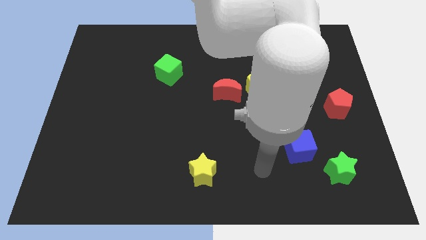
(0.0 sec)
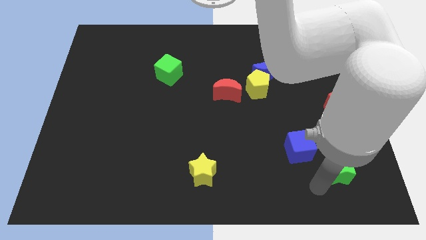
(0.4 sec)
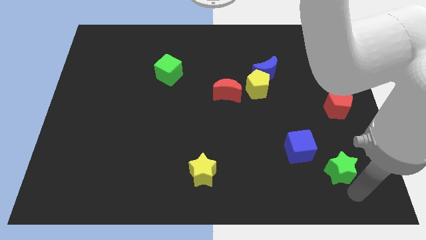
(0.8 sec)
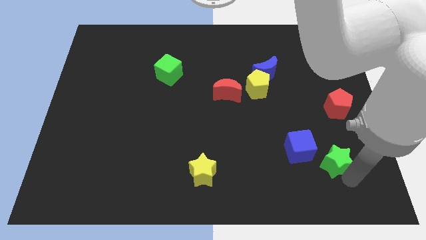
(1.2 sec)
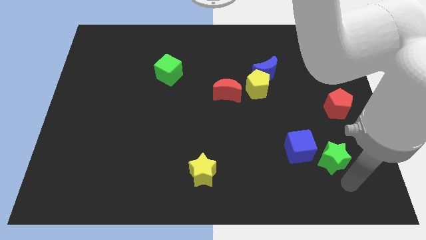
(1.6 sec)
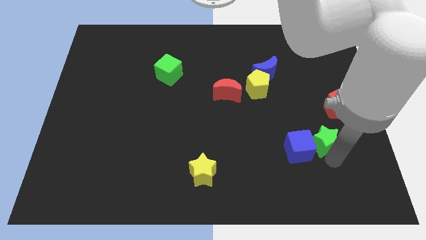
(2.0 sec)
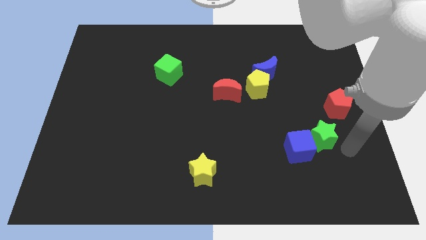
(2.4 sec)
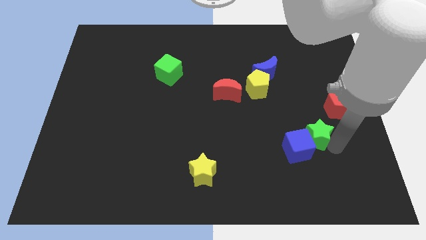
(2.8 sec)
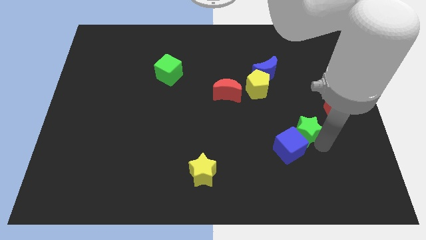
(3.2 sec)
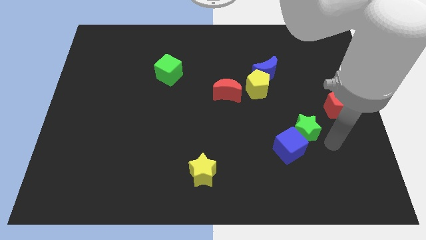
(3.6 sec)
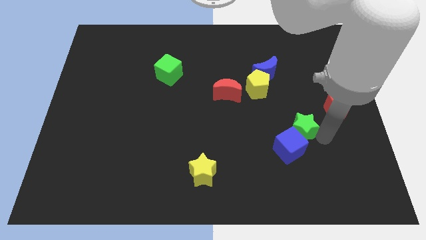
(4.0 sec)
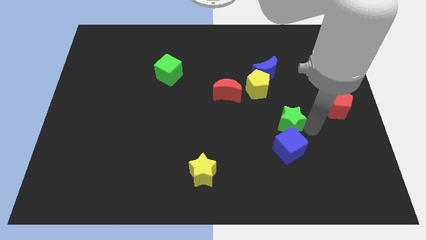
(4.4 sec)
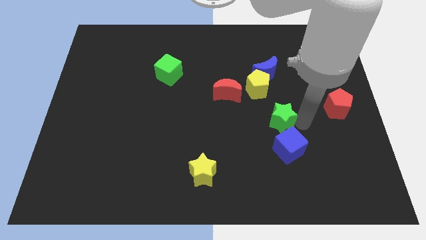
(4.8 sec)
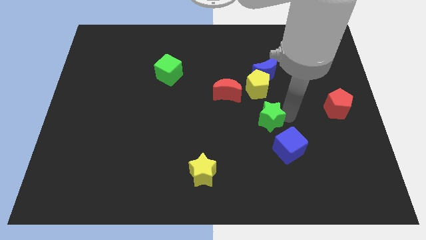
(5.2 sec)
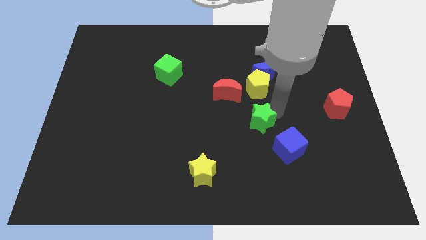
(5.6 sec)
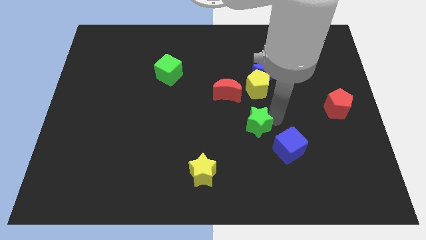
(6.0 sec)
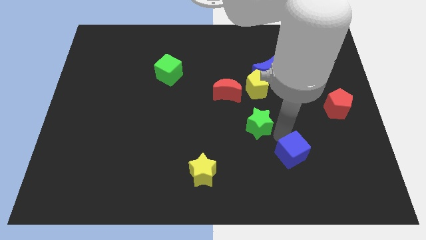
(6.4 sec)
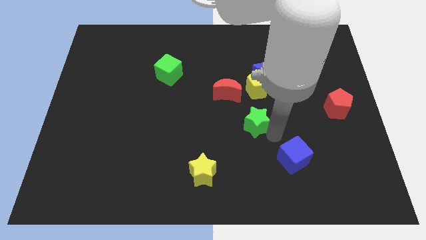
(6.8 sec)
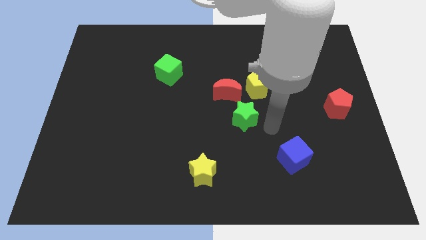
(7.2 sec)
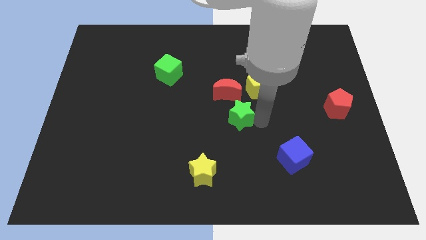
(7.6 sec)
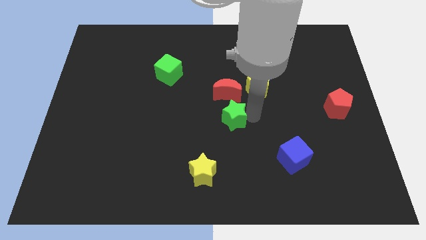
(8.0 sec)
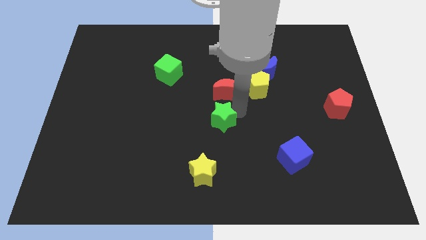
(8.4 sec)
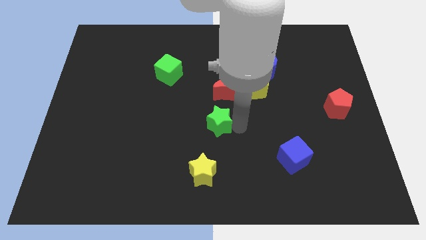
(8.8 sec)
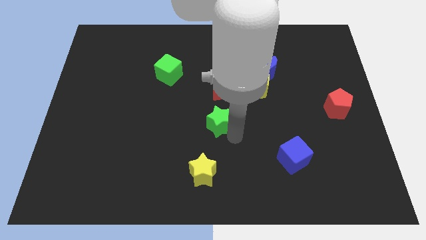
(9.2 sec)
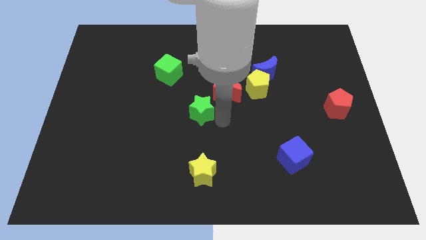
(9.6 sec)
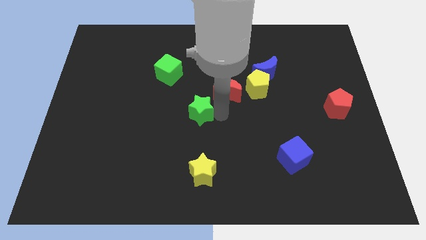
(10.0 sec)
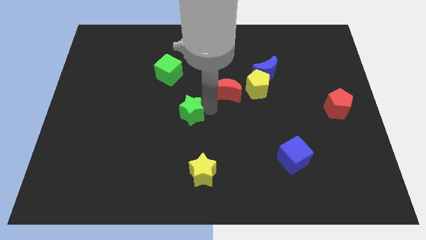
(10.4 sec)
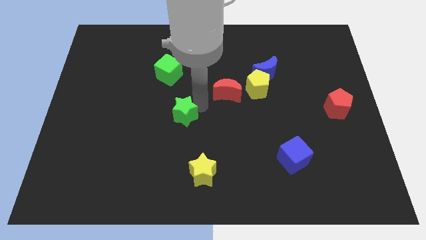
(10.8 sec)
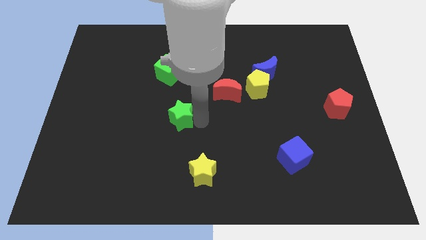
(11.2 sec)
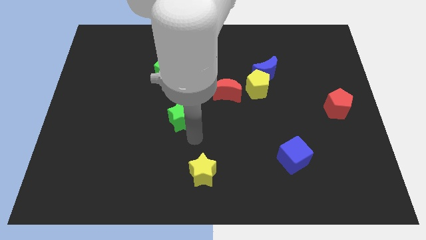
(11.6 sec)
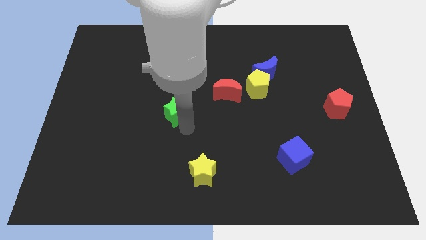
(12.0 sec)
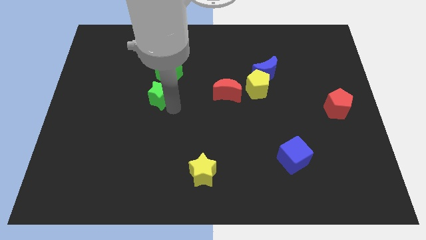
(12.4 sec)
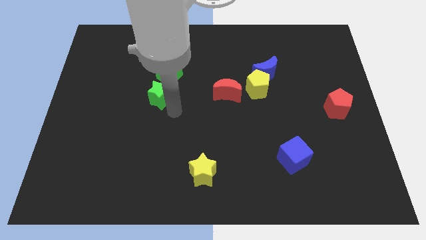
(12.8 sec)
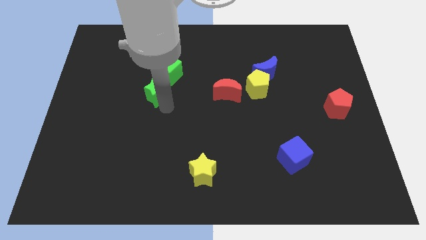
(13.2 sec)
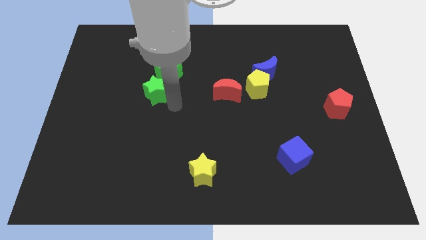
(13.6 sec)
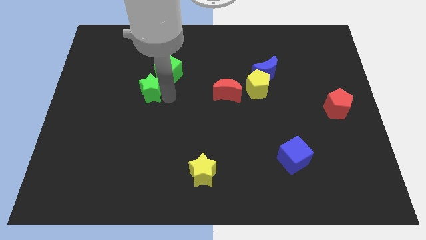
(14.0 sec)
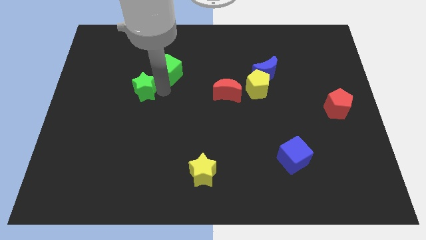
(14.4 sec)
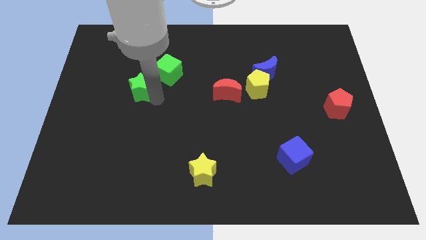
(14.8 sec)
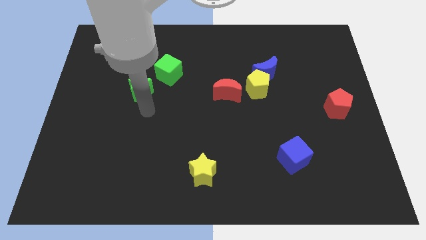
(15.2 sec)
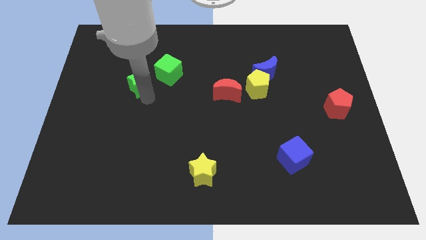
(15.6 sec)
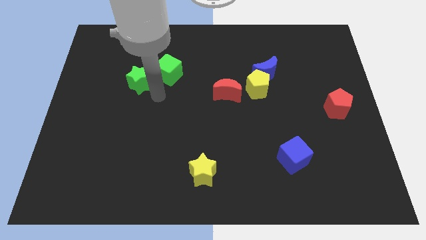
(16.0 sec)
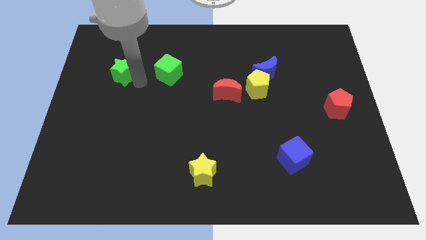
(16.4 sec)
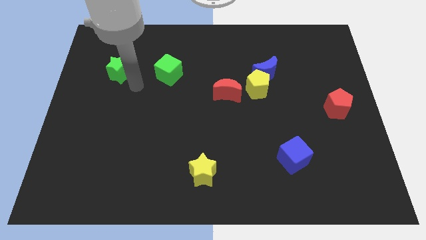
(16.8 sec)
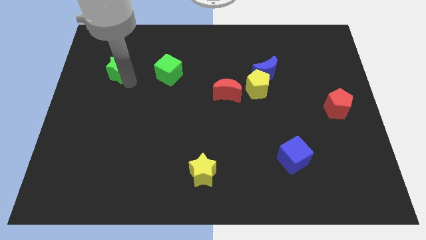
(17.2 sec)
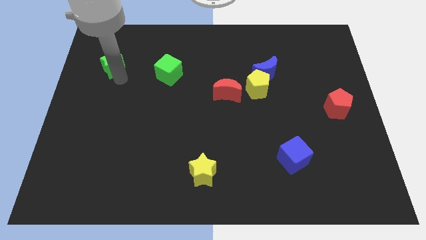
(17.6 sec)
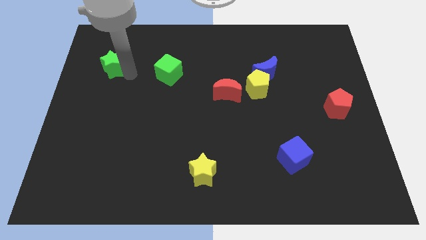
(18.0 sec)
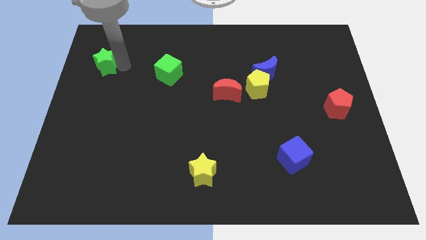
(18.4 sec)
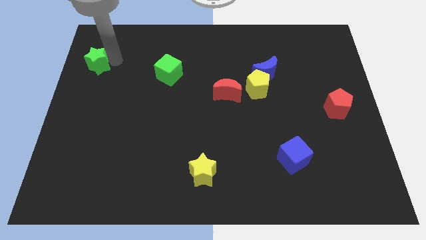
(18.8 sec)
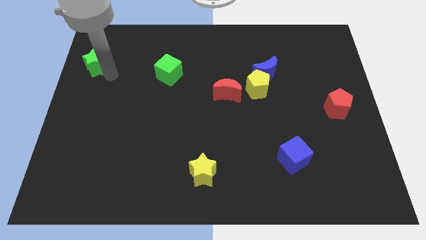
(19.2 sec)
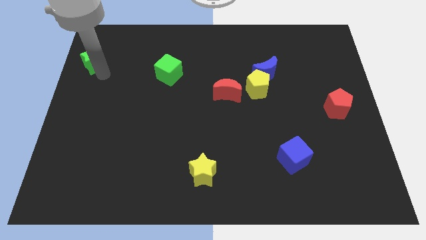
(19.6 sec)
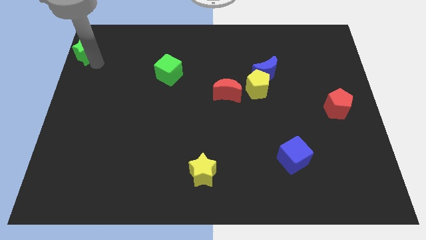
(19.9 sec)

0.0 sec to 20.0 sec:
slide the green star to the top left corner

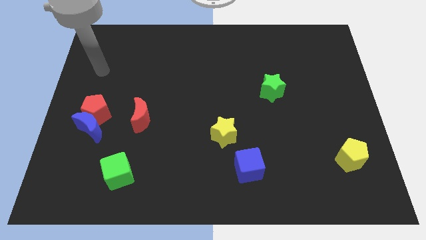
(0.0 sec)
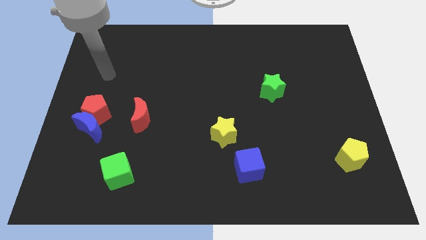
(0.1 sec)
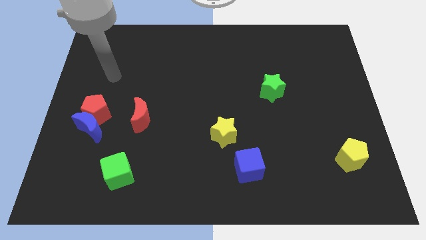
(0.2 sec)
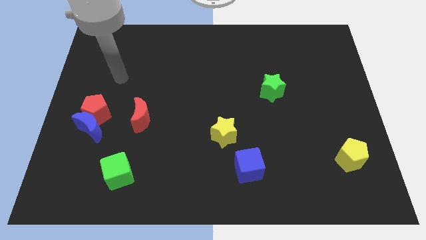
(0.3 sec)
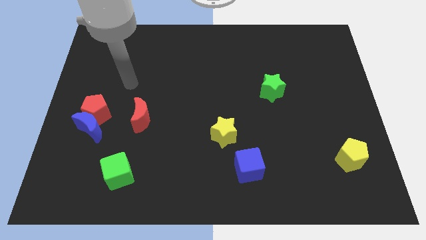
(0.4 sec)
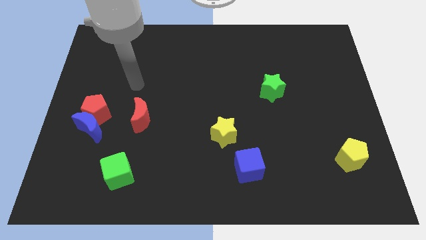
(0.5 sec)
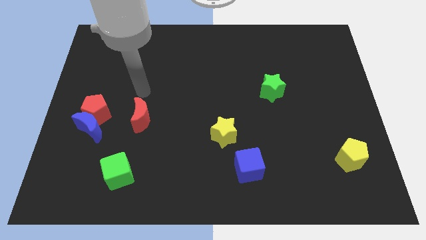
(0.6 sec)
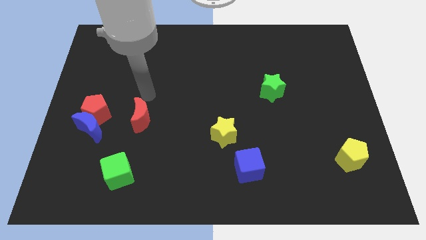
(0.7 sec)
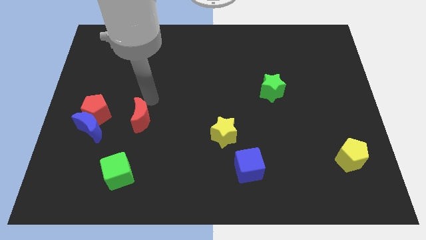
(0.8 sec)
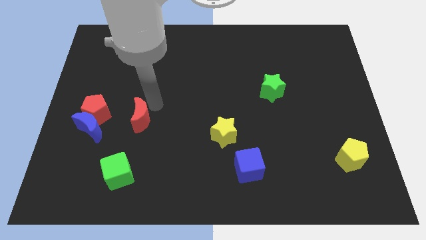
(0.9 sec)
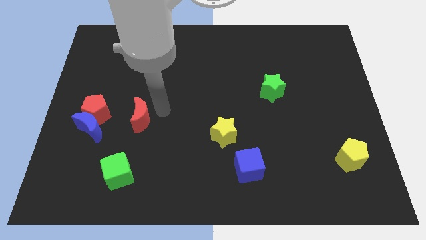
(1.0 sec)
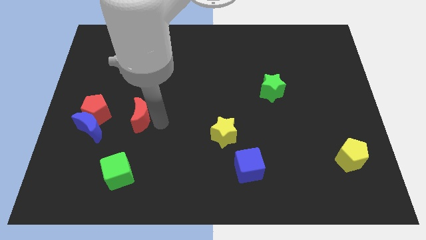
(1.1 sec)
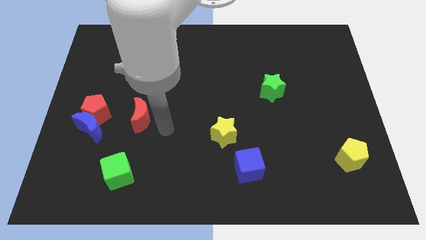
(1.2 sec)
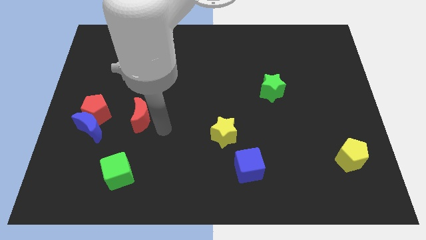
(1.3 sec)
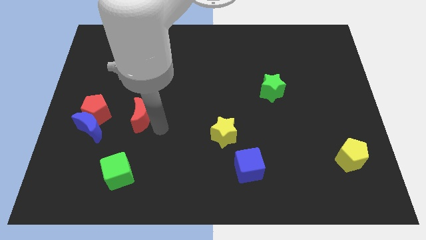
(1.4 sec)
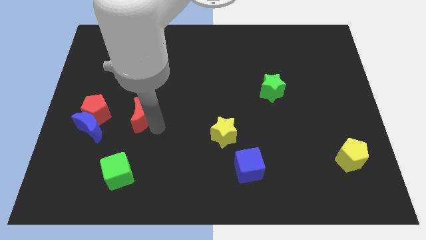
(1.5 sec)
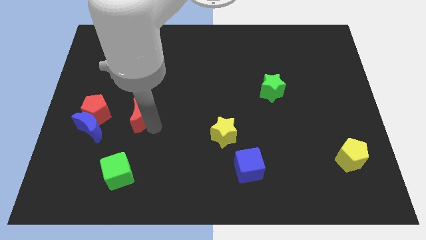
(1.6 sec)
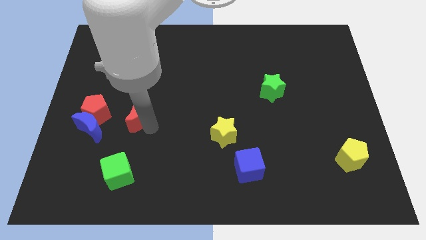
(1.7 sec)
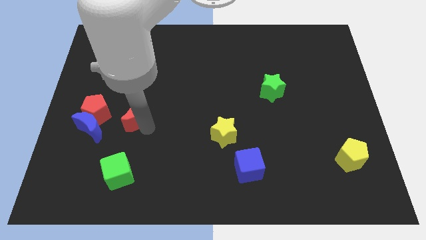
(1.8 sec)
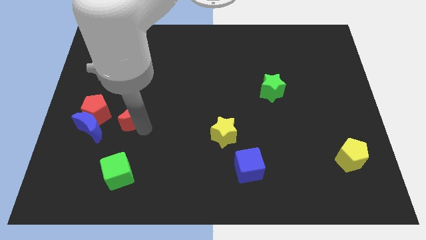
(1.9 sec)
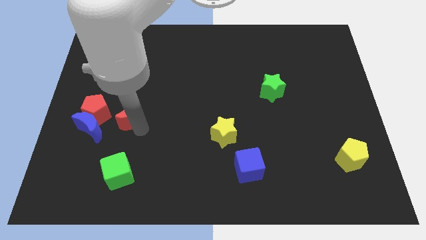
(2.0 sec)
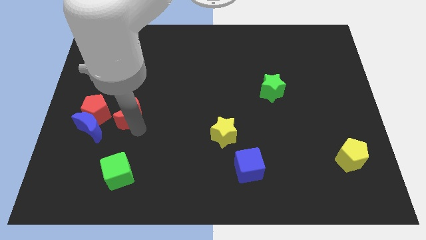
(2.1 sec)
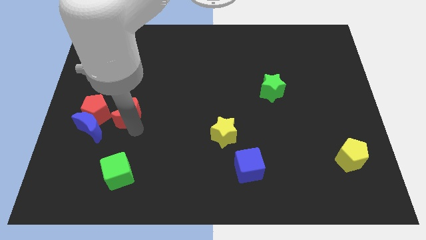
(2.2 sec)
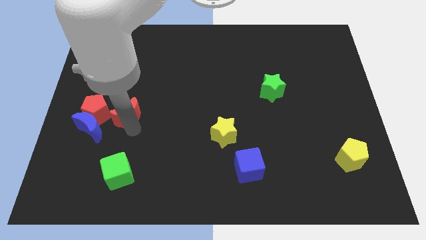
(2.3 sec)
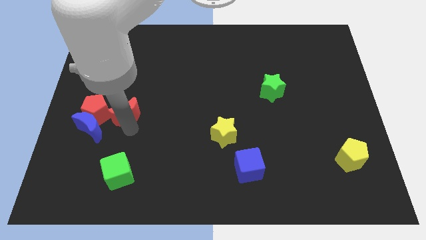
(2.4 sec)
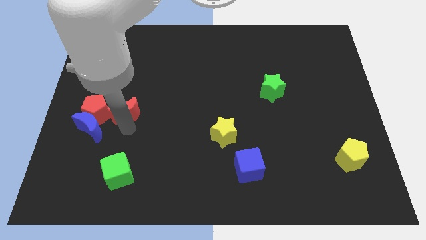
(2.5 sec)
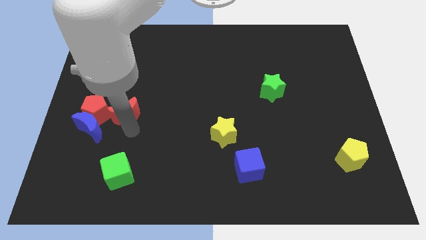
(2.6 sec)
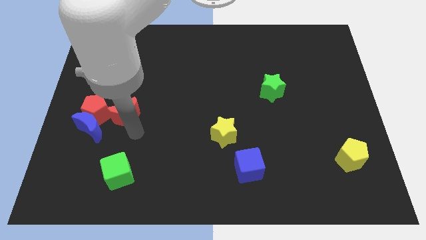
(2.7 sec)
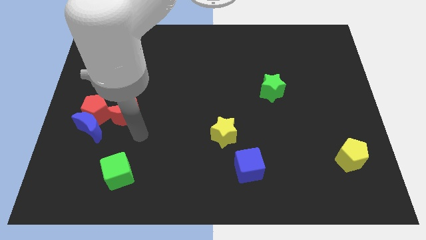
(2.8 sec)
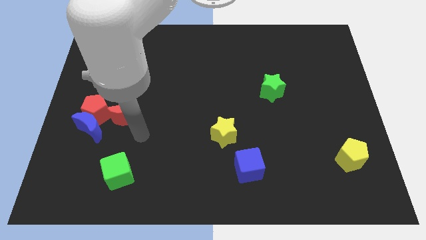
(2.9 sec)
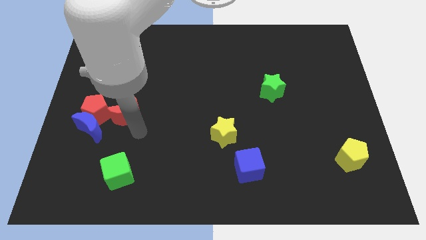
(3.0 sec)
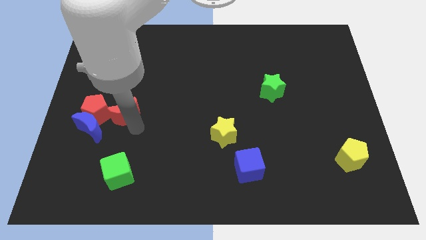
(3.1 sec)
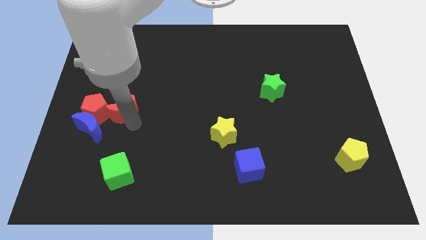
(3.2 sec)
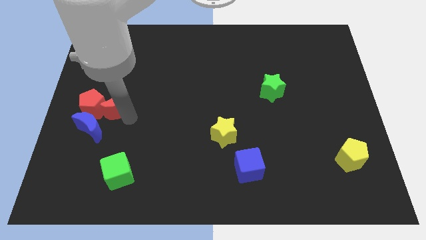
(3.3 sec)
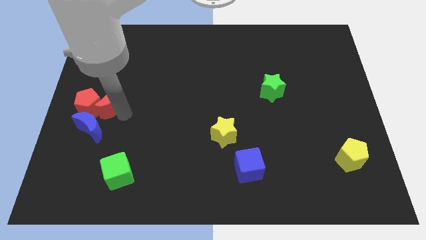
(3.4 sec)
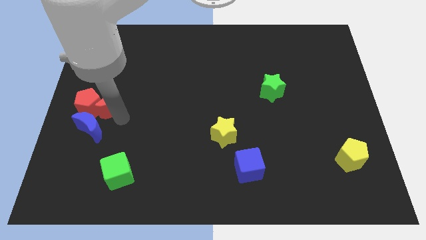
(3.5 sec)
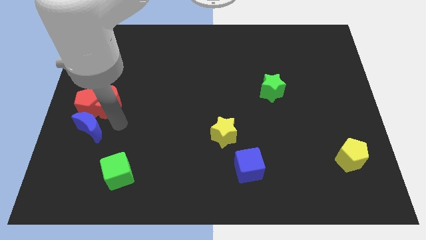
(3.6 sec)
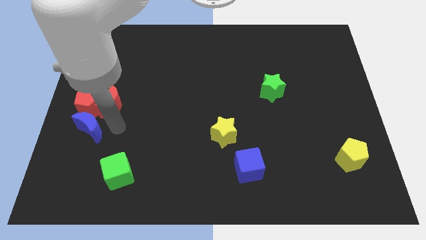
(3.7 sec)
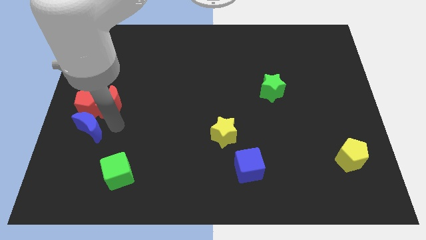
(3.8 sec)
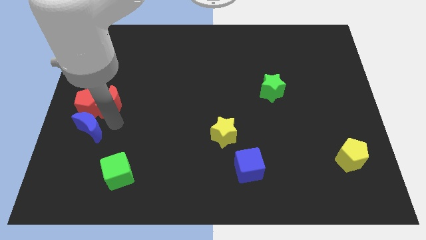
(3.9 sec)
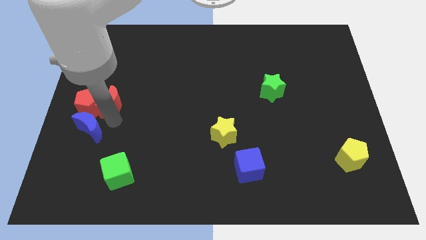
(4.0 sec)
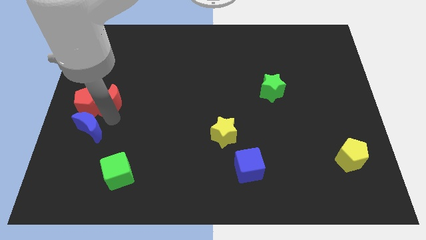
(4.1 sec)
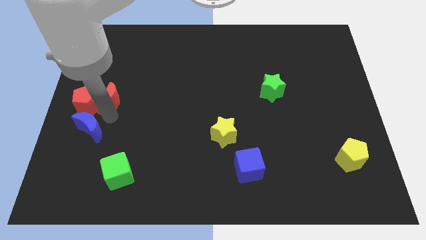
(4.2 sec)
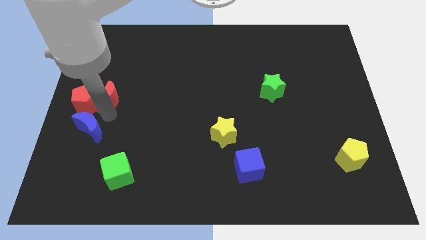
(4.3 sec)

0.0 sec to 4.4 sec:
put the red moon to the left side
